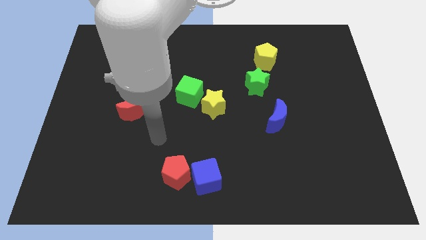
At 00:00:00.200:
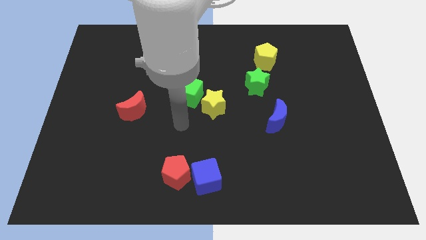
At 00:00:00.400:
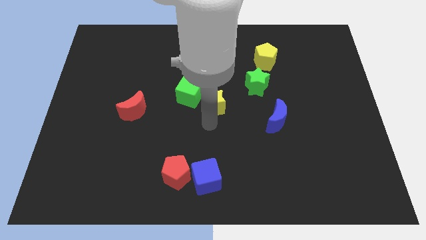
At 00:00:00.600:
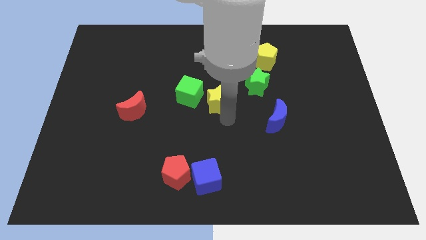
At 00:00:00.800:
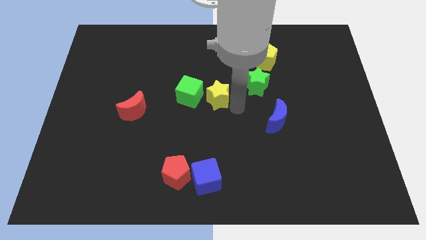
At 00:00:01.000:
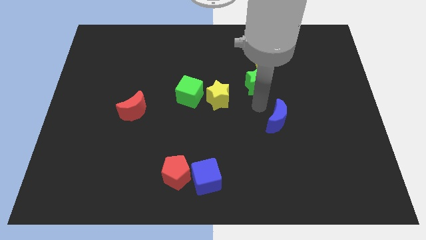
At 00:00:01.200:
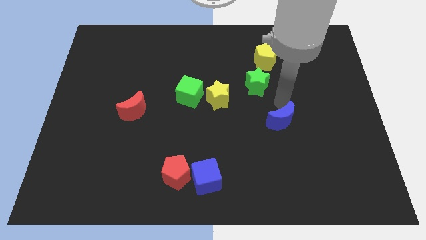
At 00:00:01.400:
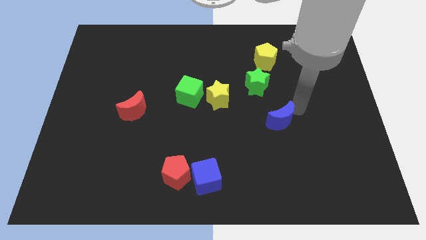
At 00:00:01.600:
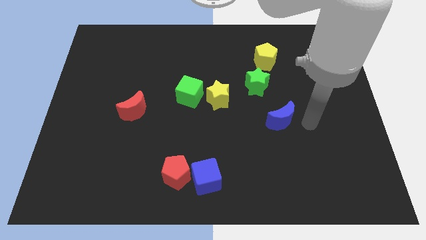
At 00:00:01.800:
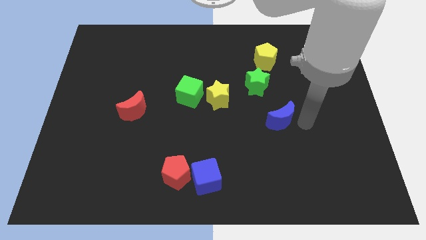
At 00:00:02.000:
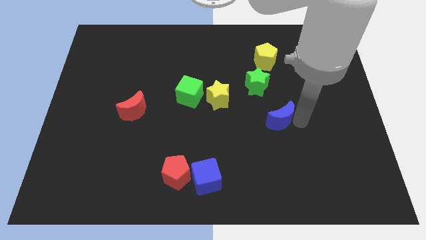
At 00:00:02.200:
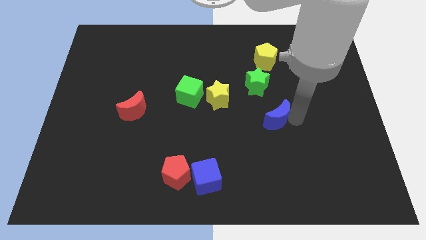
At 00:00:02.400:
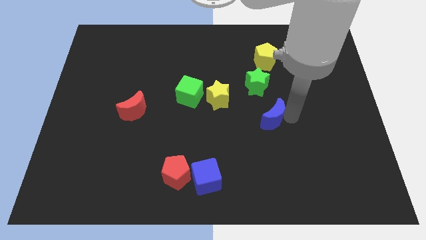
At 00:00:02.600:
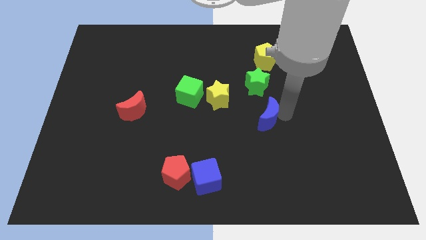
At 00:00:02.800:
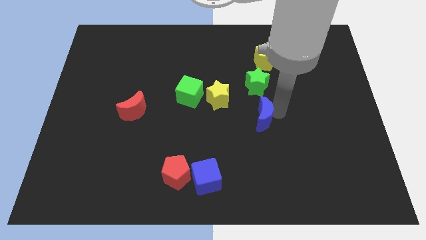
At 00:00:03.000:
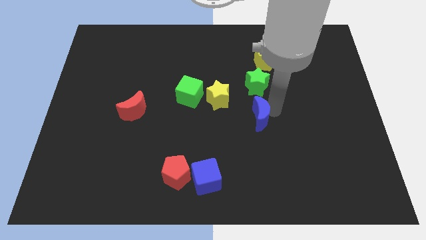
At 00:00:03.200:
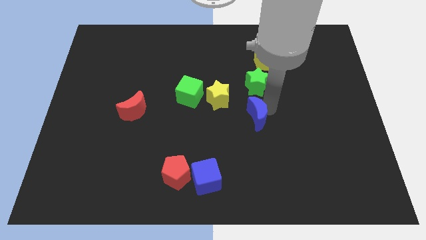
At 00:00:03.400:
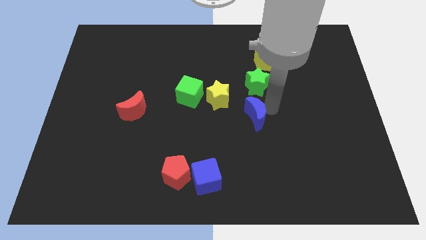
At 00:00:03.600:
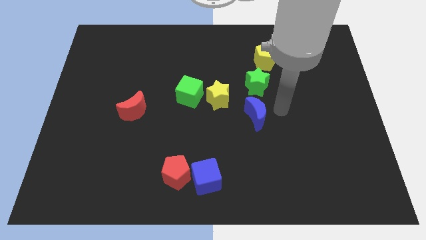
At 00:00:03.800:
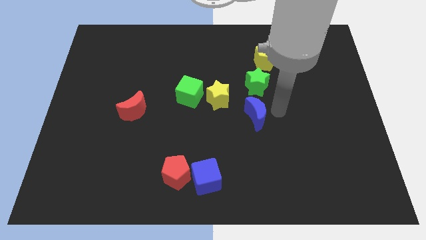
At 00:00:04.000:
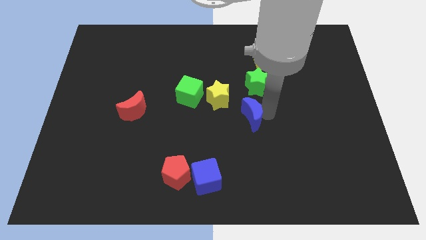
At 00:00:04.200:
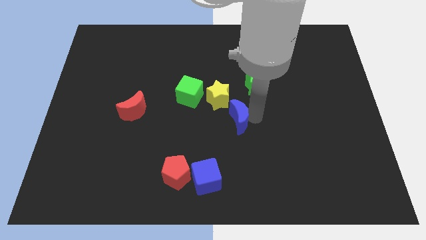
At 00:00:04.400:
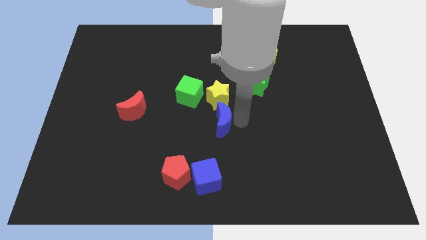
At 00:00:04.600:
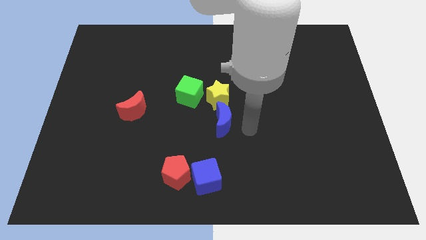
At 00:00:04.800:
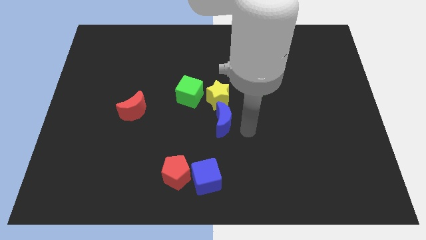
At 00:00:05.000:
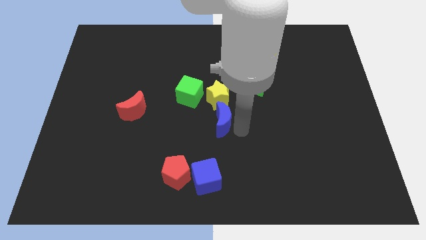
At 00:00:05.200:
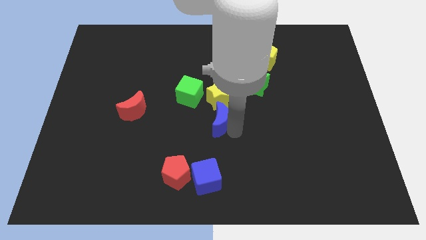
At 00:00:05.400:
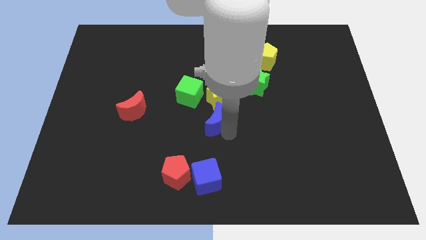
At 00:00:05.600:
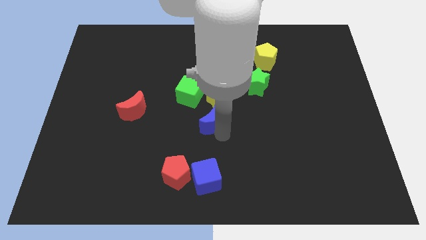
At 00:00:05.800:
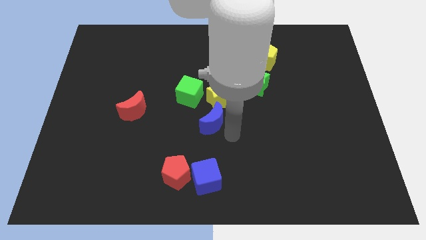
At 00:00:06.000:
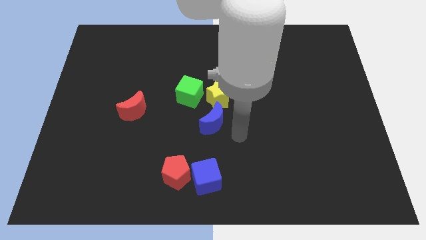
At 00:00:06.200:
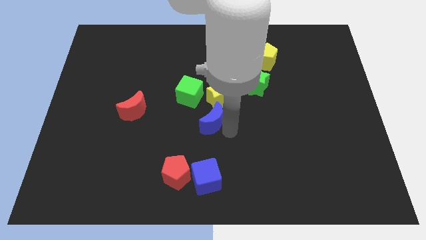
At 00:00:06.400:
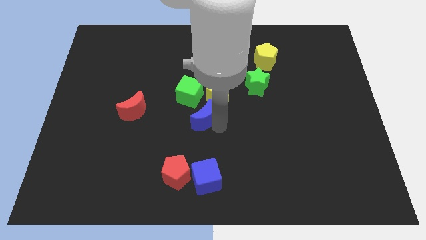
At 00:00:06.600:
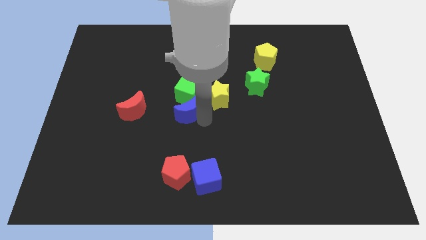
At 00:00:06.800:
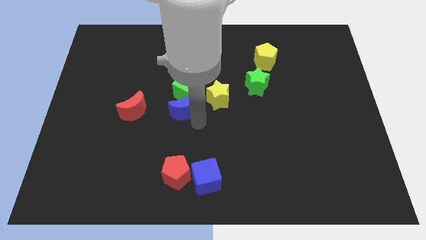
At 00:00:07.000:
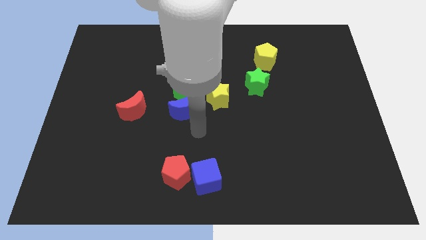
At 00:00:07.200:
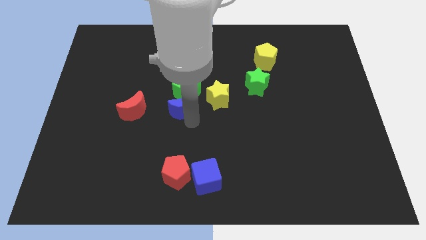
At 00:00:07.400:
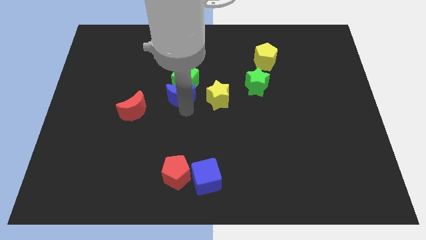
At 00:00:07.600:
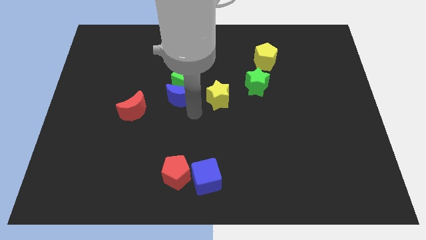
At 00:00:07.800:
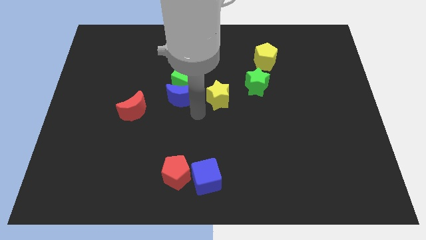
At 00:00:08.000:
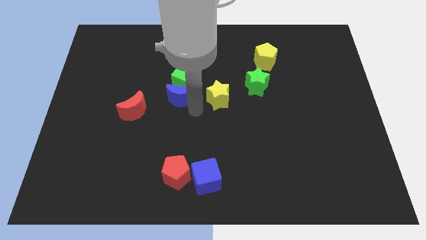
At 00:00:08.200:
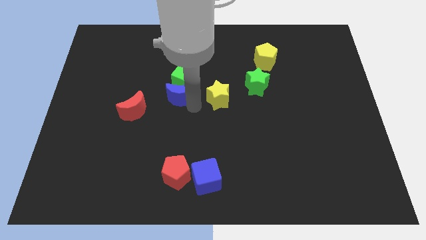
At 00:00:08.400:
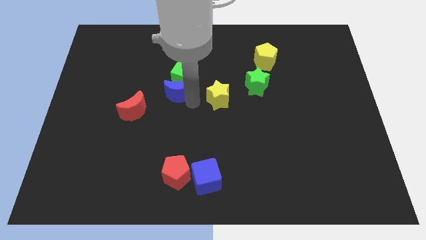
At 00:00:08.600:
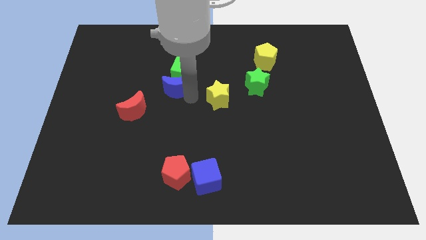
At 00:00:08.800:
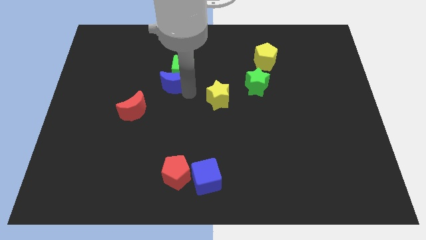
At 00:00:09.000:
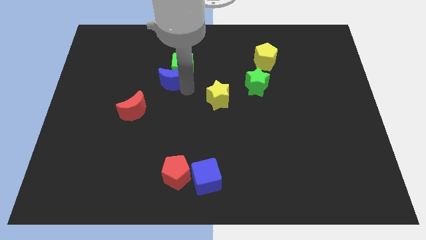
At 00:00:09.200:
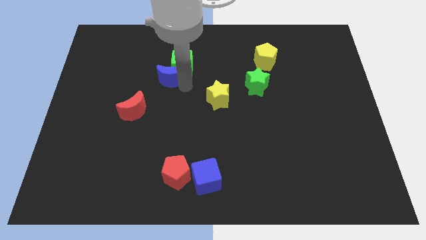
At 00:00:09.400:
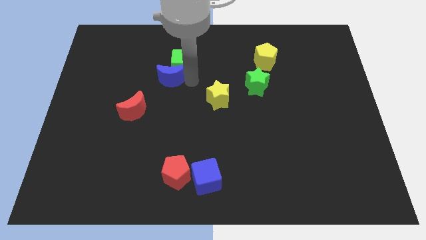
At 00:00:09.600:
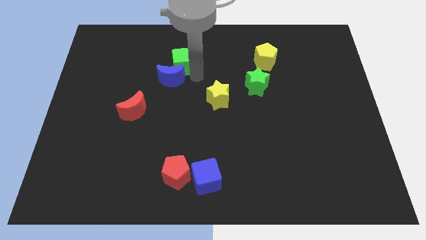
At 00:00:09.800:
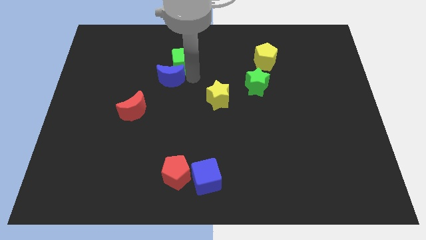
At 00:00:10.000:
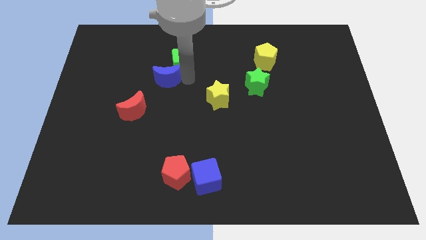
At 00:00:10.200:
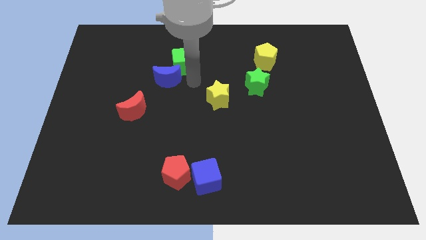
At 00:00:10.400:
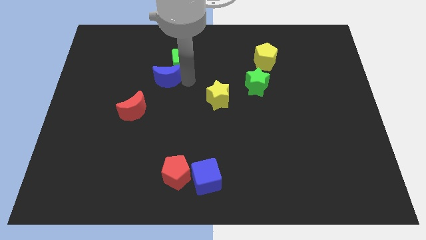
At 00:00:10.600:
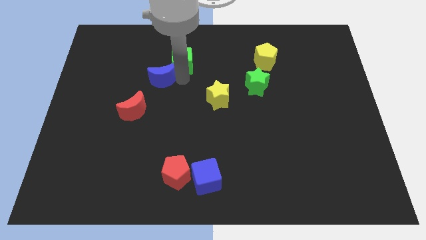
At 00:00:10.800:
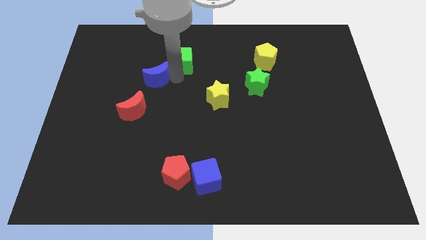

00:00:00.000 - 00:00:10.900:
move the blue moon above the red moon

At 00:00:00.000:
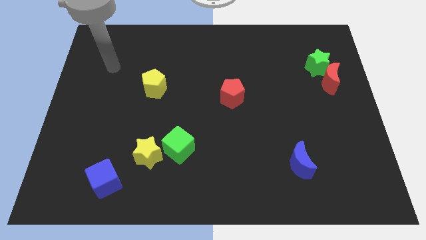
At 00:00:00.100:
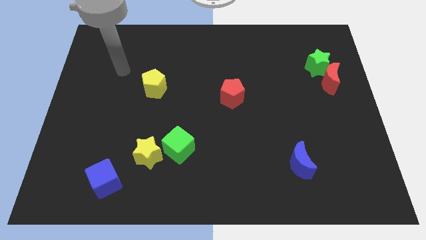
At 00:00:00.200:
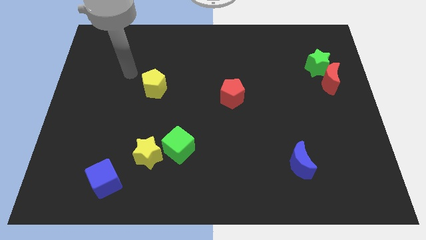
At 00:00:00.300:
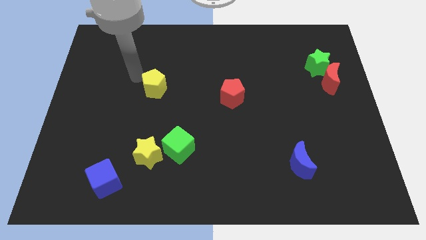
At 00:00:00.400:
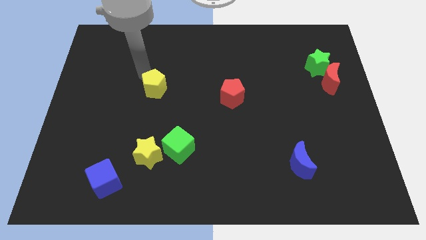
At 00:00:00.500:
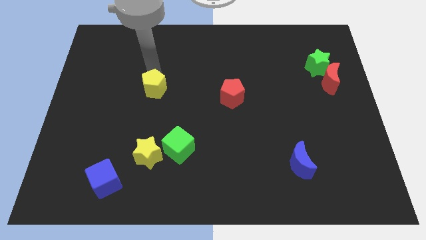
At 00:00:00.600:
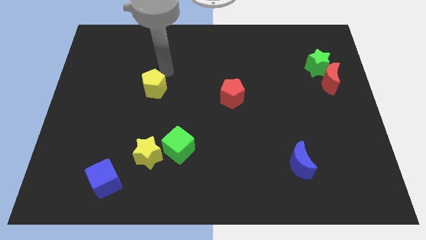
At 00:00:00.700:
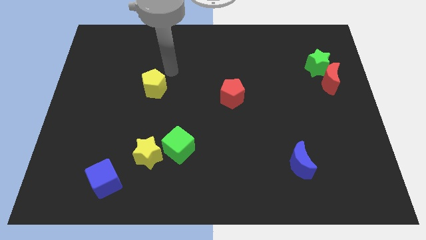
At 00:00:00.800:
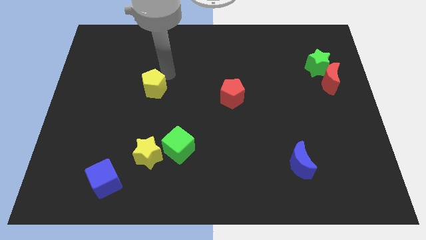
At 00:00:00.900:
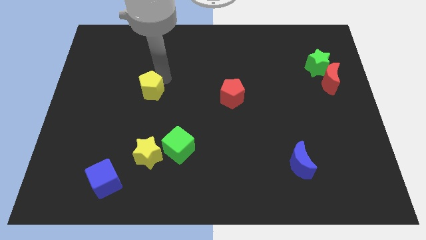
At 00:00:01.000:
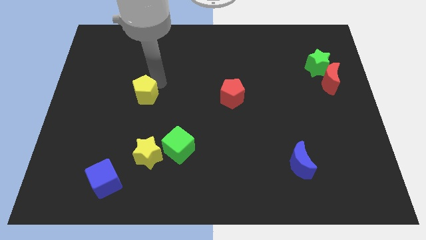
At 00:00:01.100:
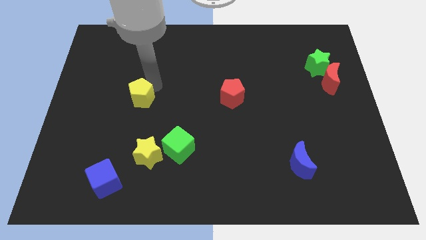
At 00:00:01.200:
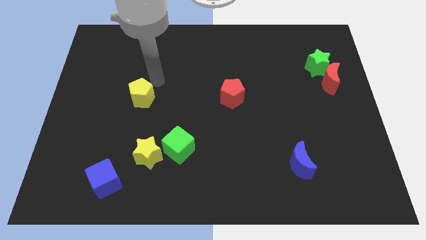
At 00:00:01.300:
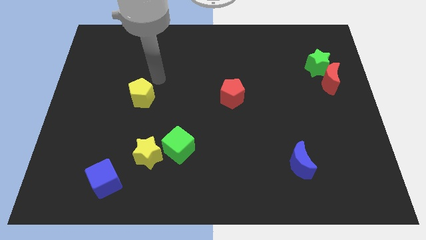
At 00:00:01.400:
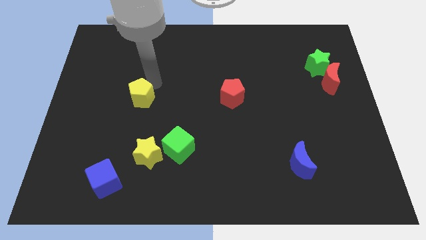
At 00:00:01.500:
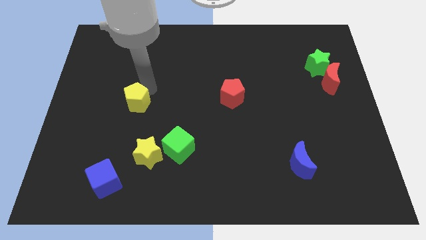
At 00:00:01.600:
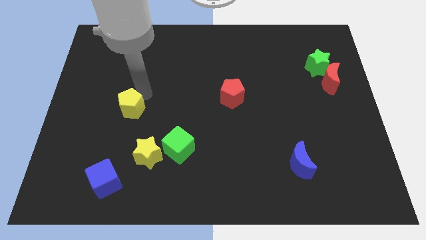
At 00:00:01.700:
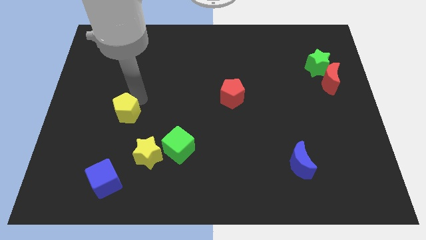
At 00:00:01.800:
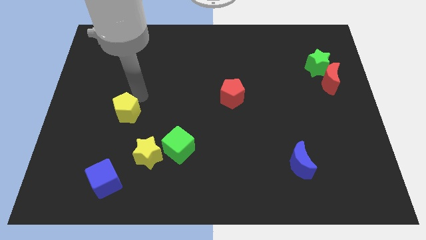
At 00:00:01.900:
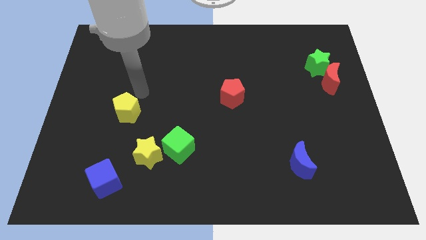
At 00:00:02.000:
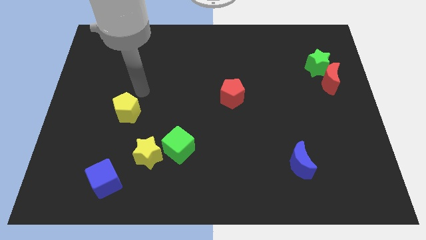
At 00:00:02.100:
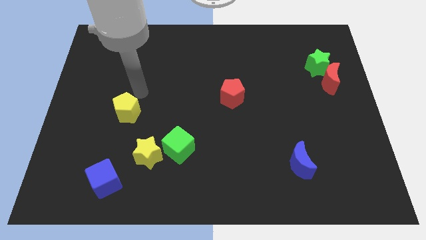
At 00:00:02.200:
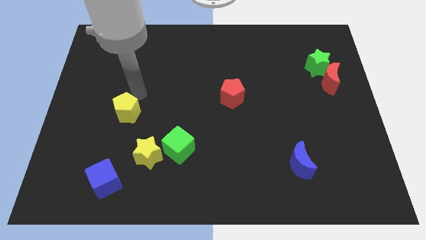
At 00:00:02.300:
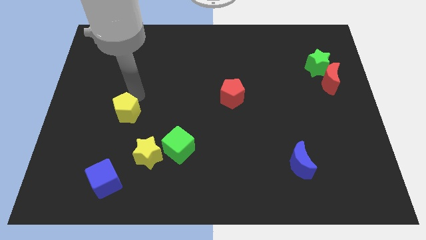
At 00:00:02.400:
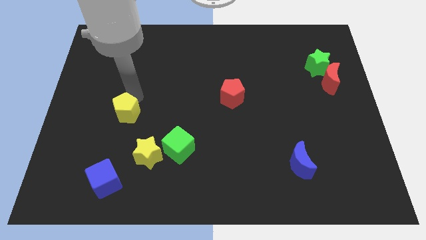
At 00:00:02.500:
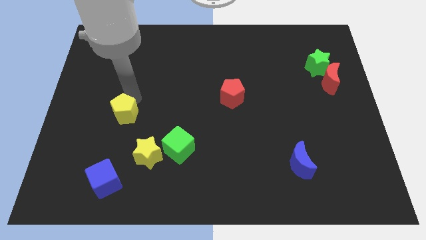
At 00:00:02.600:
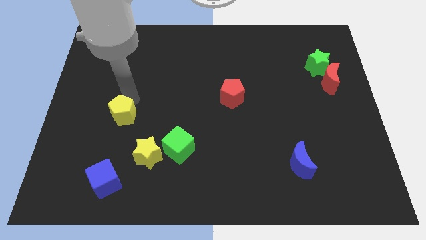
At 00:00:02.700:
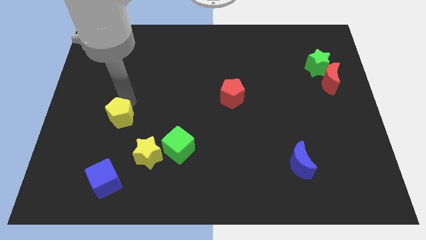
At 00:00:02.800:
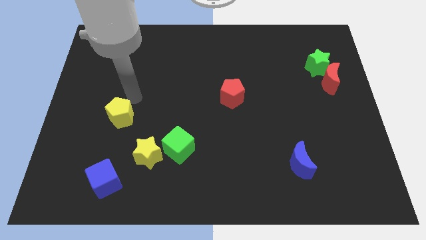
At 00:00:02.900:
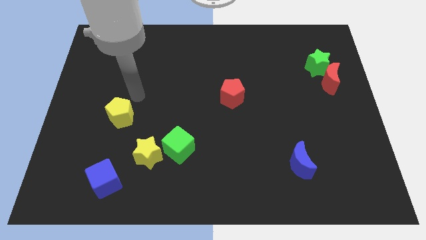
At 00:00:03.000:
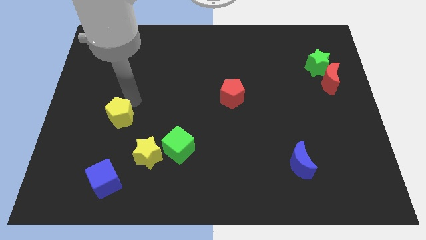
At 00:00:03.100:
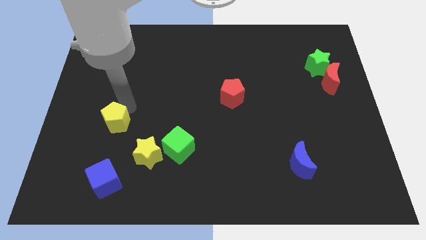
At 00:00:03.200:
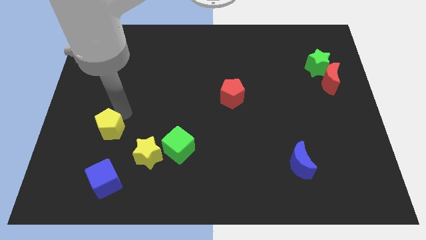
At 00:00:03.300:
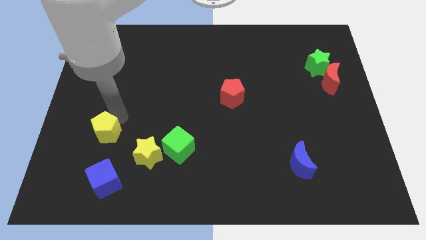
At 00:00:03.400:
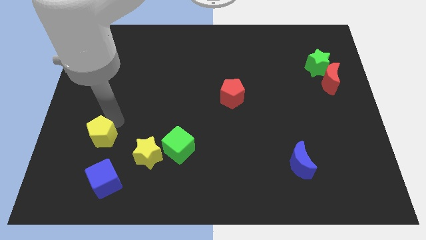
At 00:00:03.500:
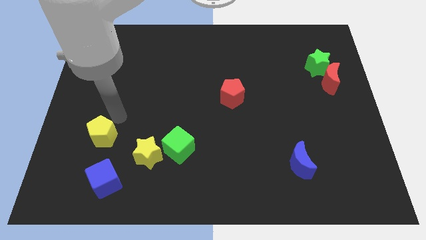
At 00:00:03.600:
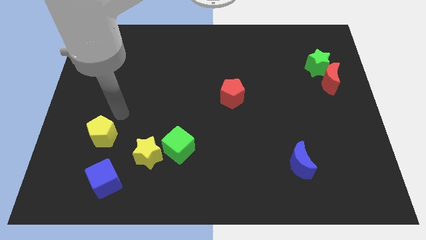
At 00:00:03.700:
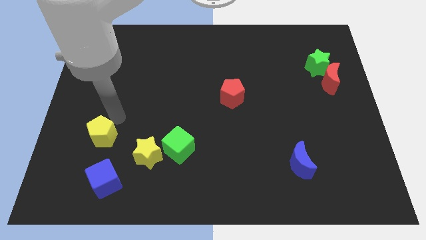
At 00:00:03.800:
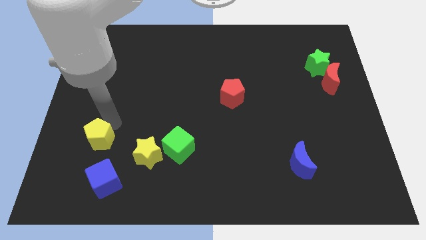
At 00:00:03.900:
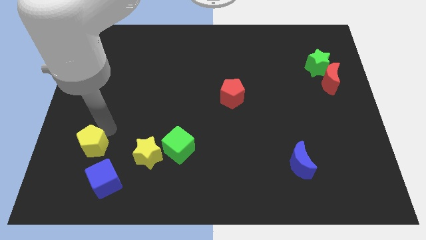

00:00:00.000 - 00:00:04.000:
put the yellow pentagon to the top left of the blue cube
